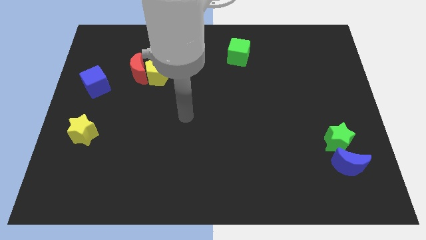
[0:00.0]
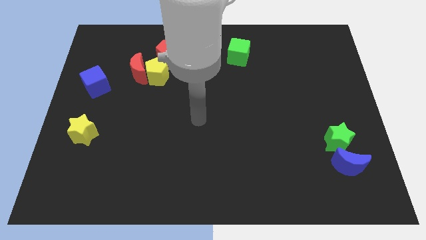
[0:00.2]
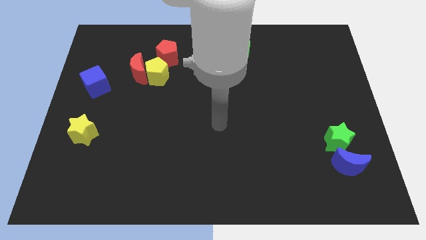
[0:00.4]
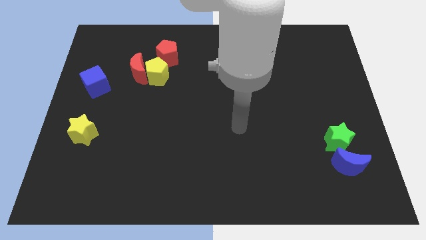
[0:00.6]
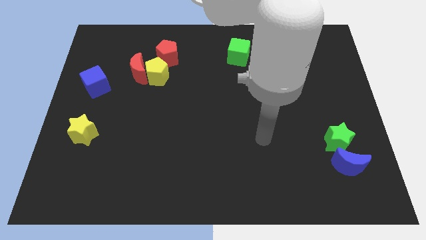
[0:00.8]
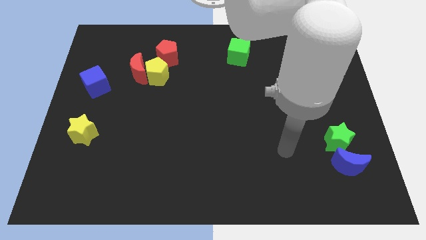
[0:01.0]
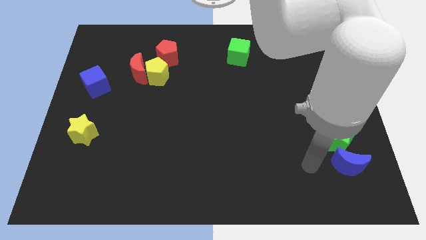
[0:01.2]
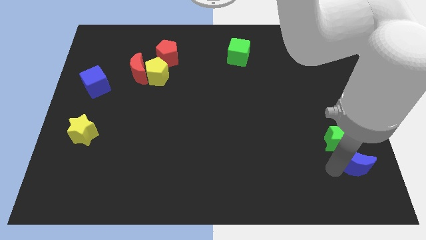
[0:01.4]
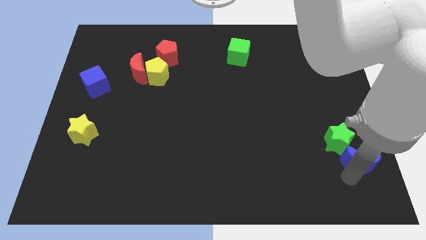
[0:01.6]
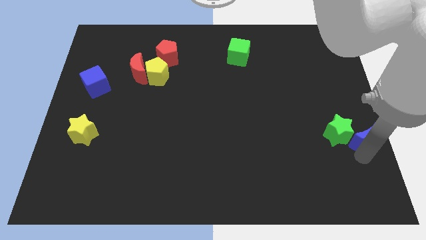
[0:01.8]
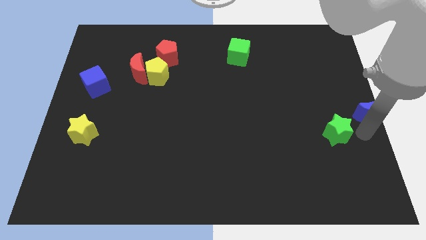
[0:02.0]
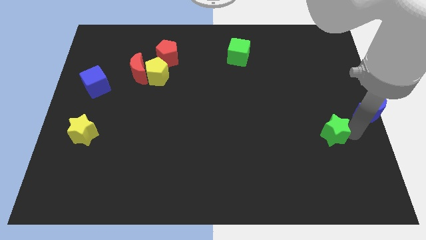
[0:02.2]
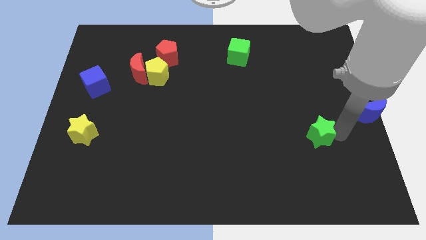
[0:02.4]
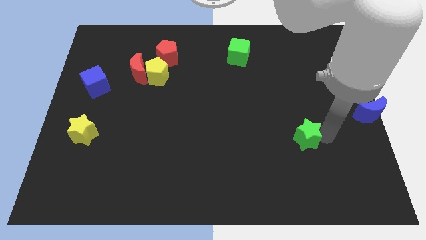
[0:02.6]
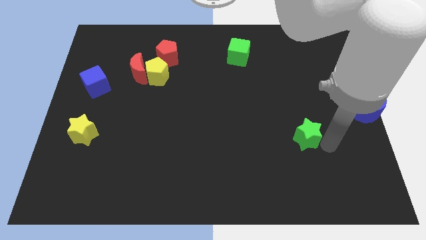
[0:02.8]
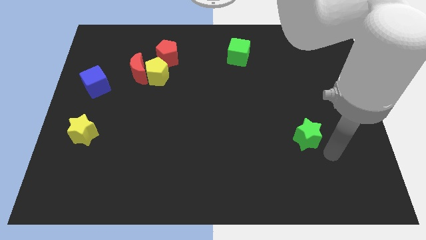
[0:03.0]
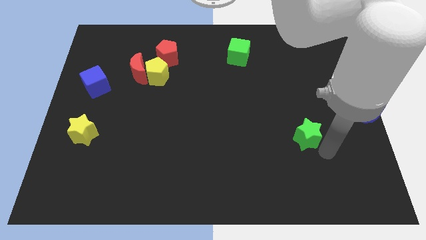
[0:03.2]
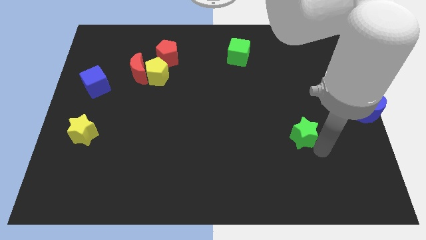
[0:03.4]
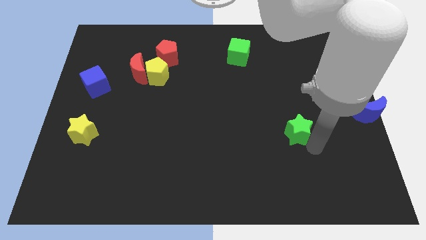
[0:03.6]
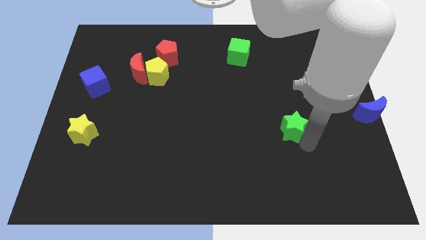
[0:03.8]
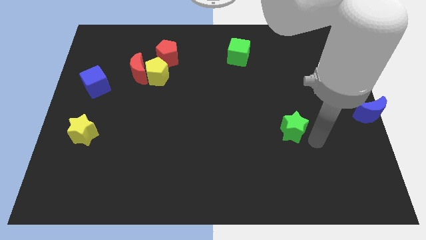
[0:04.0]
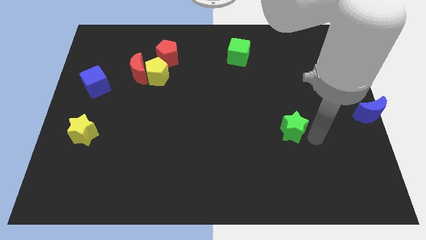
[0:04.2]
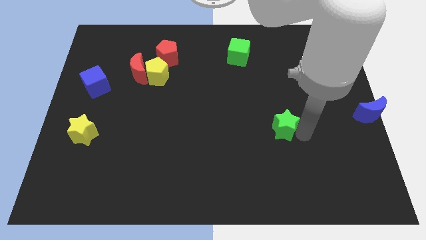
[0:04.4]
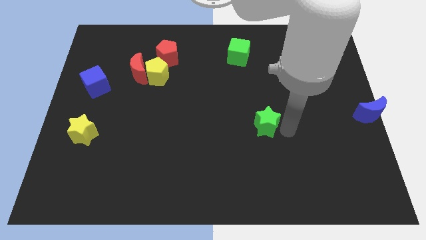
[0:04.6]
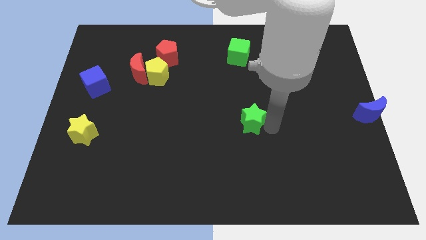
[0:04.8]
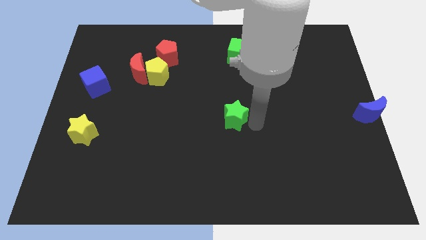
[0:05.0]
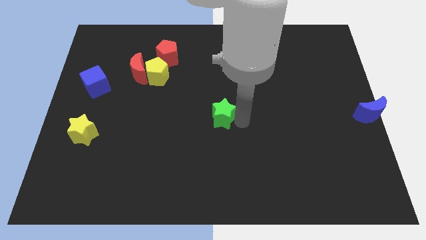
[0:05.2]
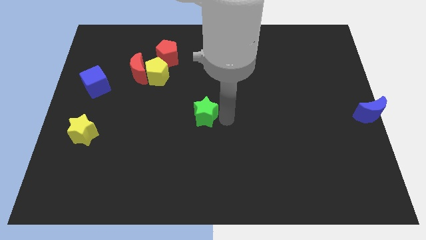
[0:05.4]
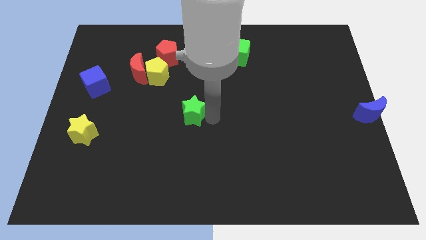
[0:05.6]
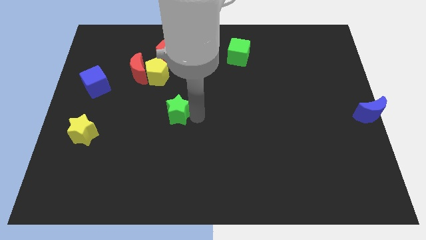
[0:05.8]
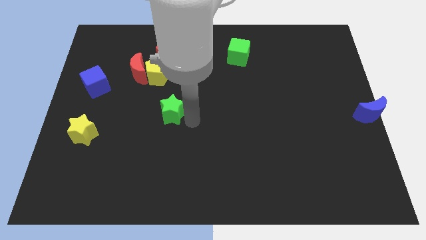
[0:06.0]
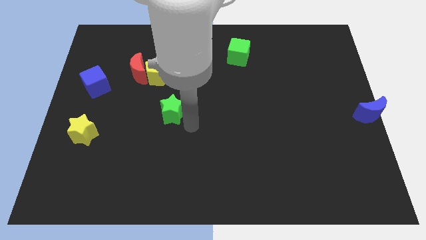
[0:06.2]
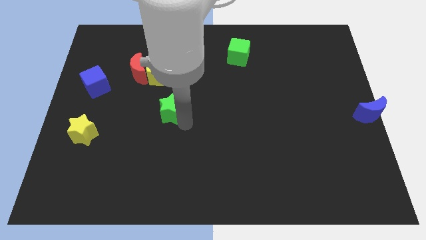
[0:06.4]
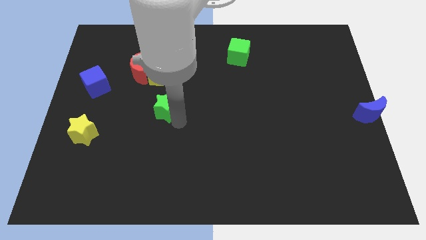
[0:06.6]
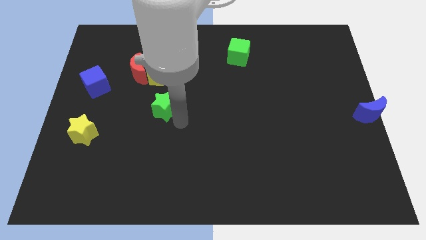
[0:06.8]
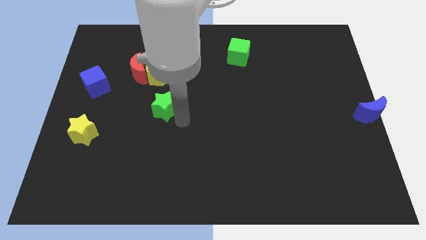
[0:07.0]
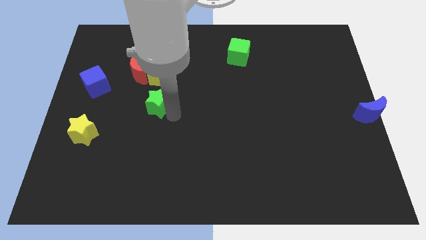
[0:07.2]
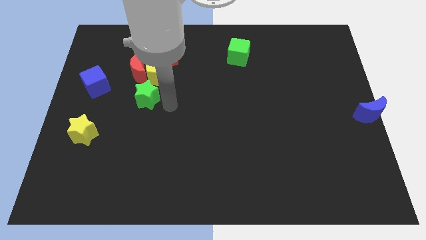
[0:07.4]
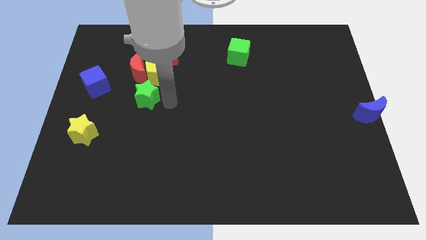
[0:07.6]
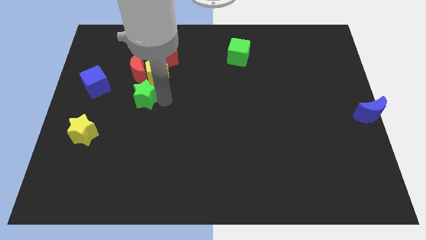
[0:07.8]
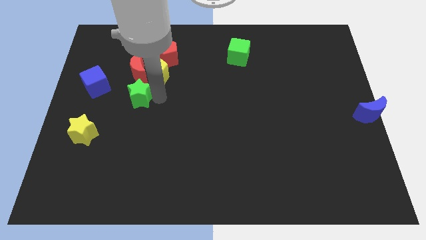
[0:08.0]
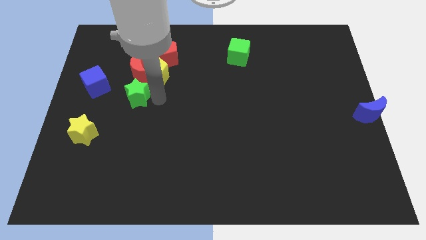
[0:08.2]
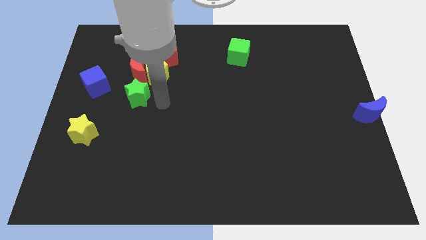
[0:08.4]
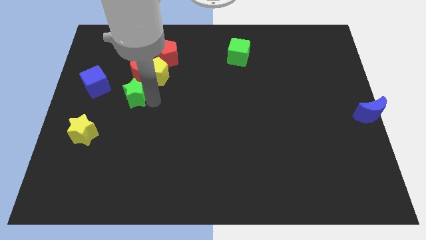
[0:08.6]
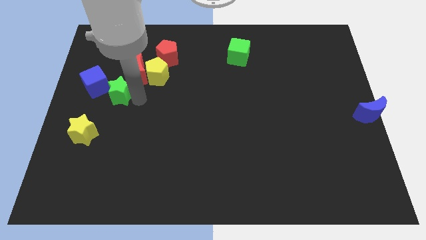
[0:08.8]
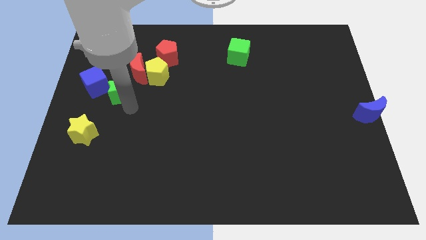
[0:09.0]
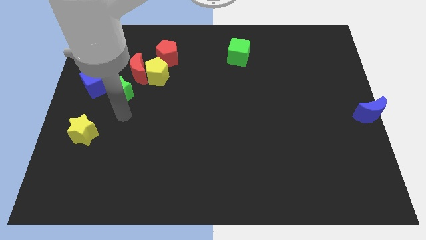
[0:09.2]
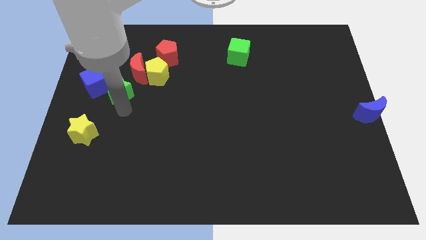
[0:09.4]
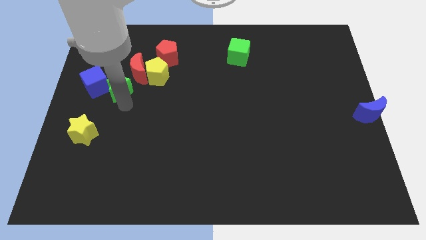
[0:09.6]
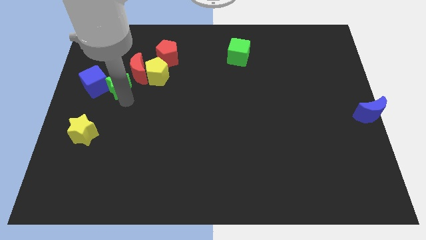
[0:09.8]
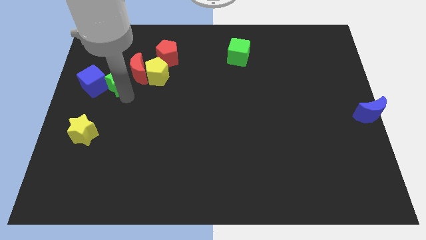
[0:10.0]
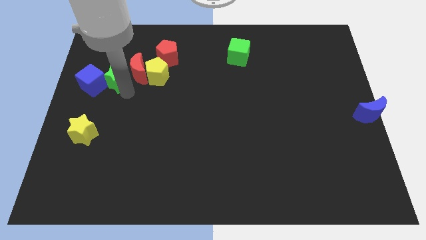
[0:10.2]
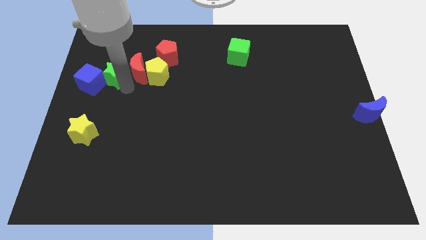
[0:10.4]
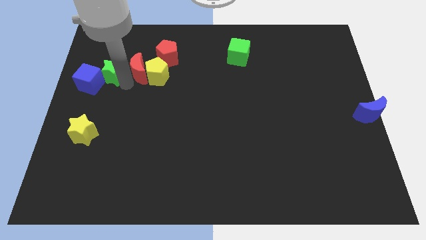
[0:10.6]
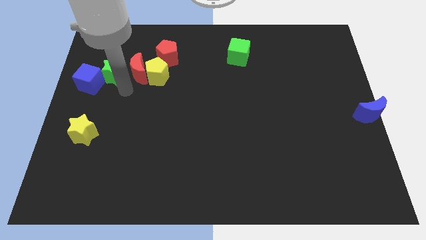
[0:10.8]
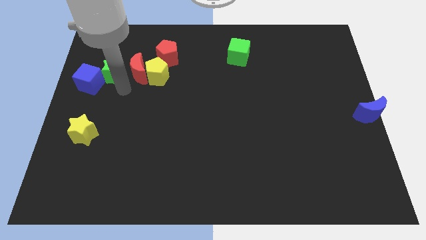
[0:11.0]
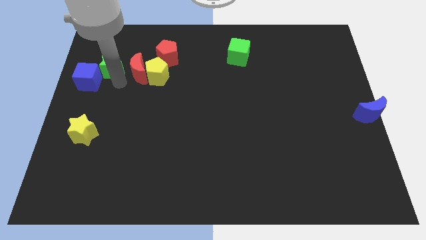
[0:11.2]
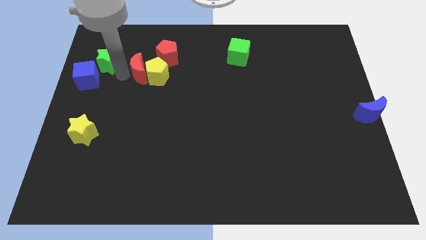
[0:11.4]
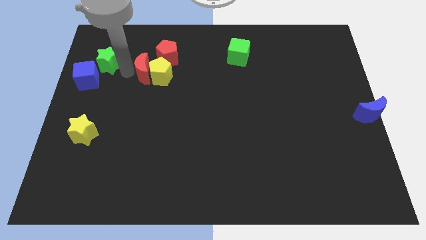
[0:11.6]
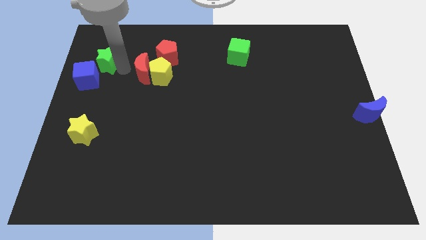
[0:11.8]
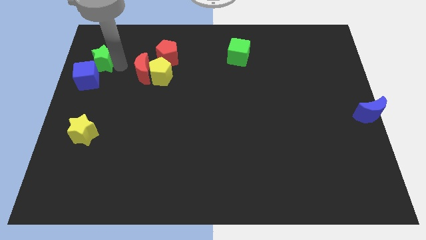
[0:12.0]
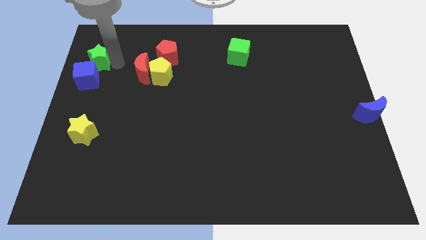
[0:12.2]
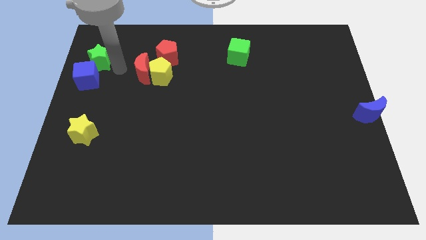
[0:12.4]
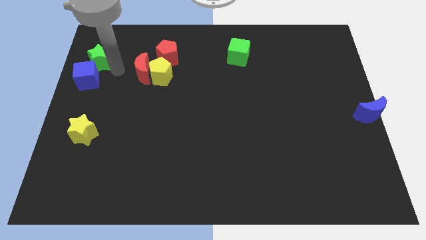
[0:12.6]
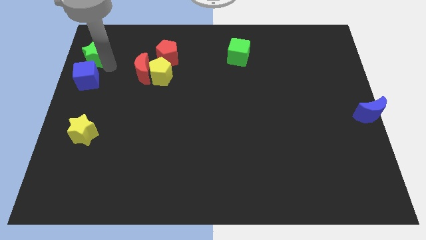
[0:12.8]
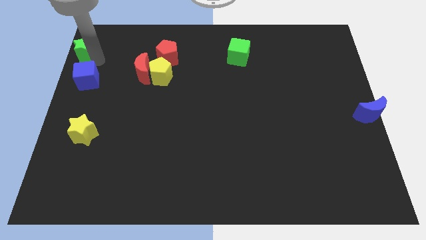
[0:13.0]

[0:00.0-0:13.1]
slide the green star to the top left
